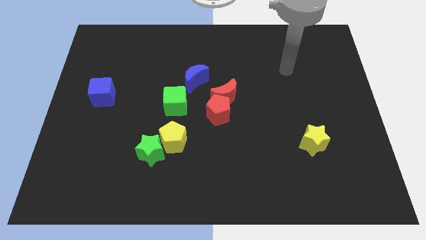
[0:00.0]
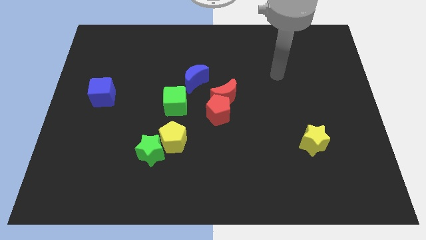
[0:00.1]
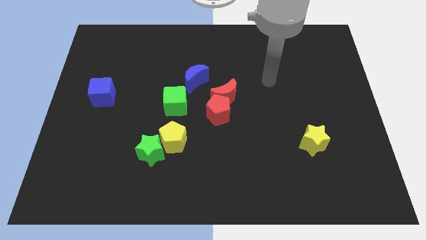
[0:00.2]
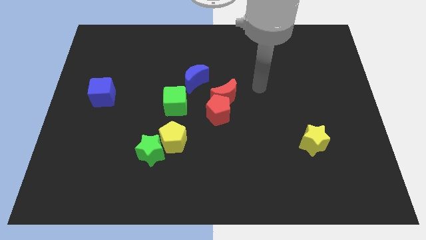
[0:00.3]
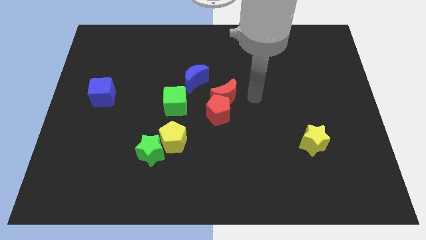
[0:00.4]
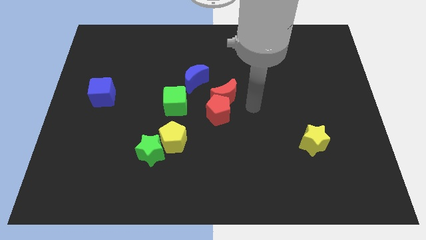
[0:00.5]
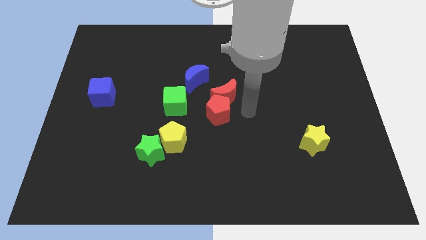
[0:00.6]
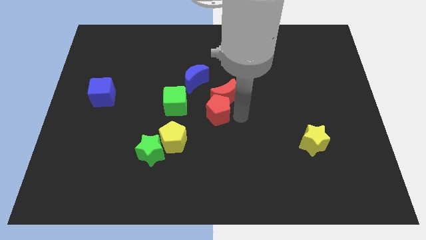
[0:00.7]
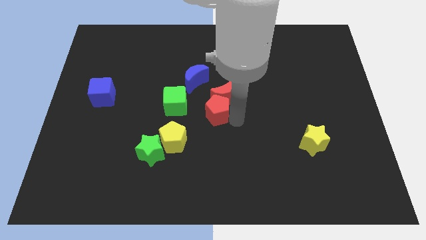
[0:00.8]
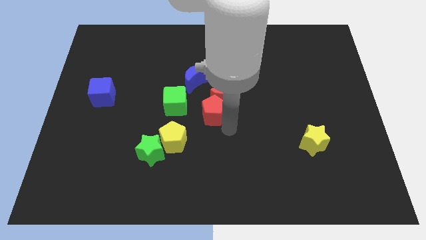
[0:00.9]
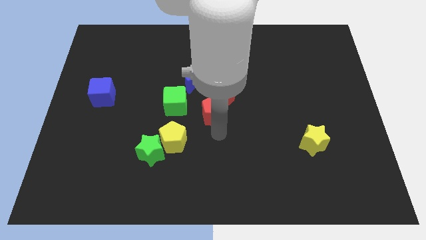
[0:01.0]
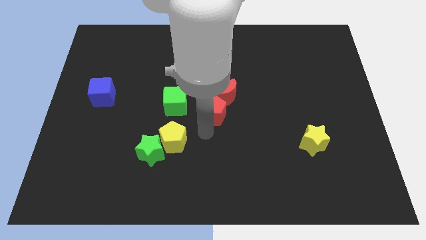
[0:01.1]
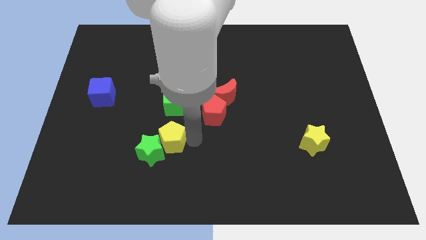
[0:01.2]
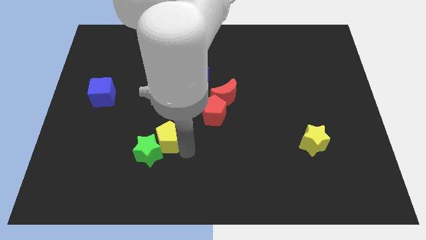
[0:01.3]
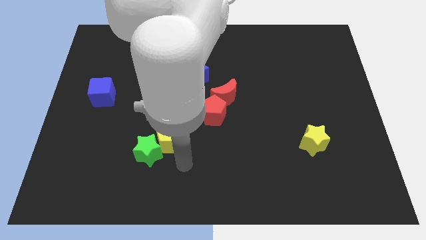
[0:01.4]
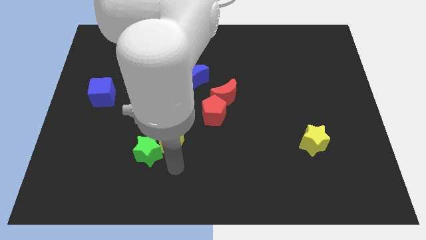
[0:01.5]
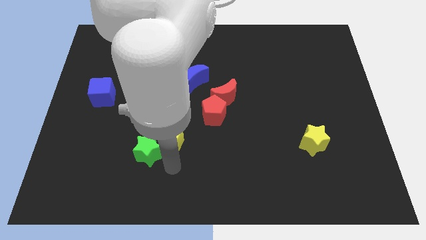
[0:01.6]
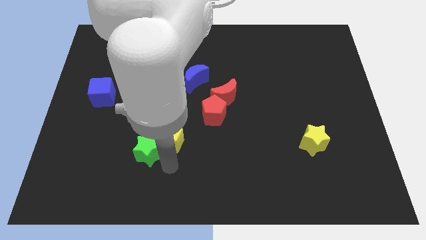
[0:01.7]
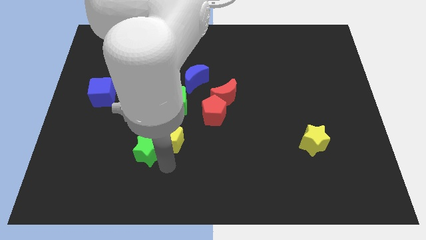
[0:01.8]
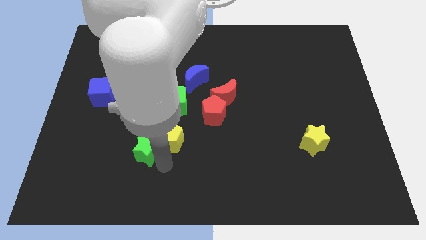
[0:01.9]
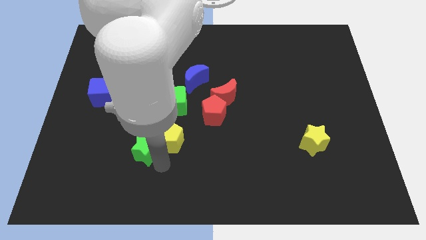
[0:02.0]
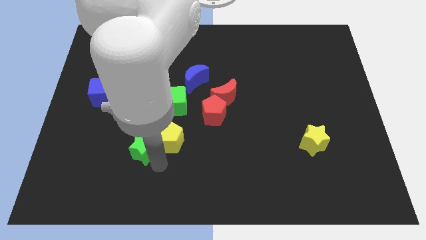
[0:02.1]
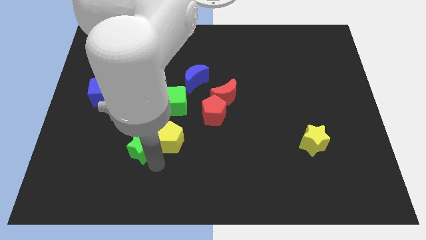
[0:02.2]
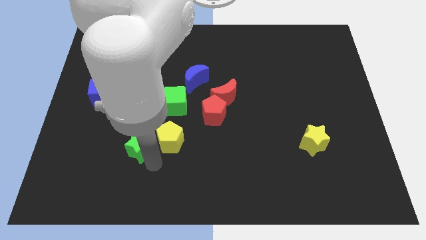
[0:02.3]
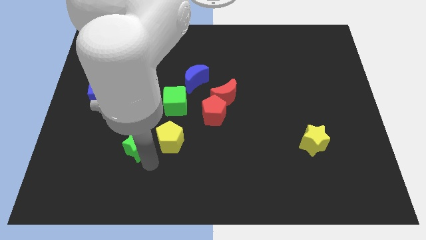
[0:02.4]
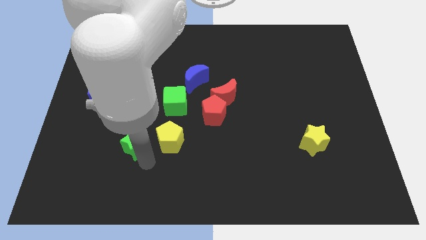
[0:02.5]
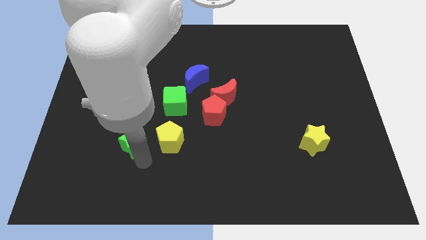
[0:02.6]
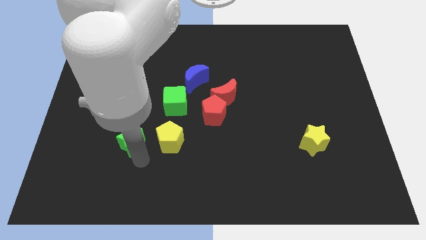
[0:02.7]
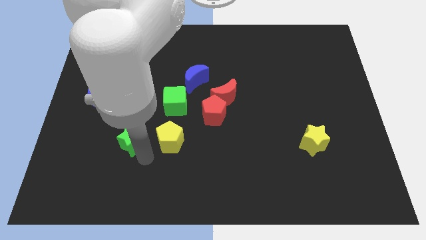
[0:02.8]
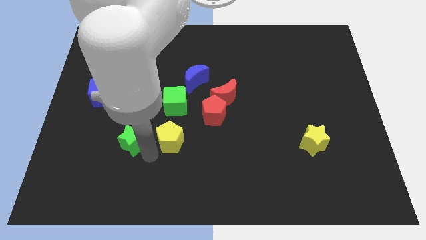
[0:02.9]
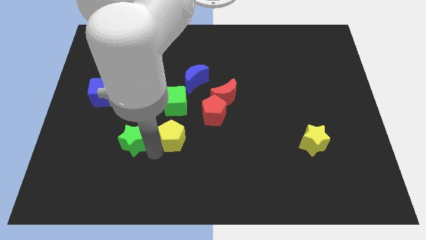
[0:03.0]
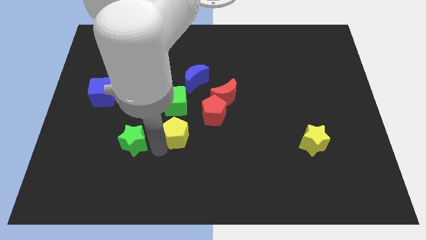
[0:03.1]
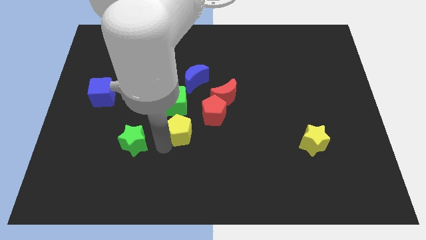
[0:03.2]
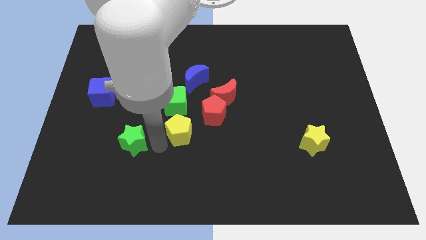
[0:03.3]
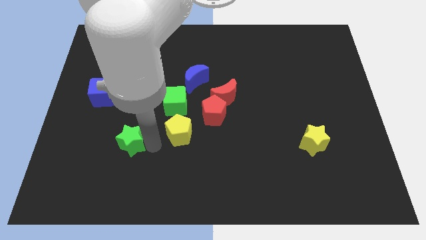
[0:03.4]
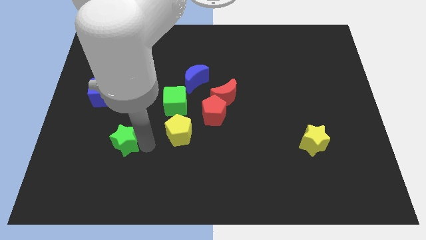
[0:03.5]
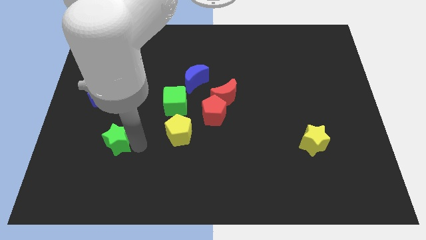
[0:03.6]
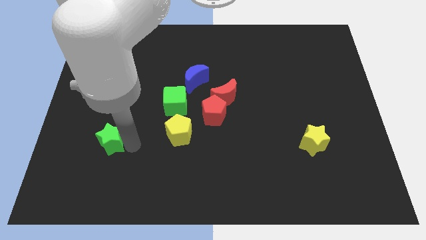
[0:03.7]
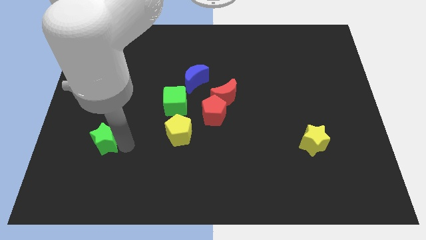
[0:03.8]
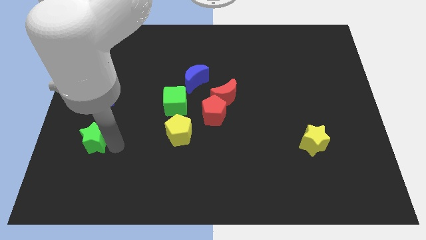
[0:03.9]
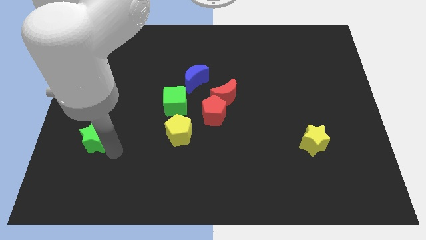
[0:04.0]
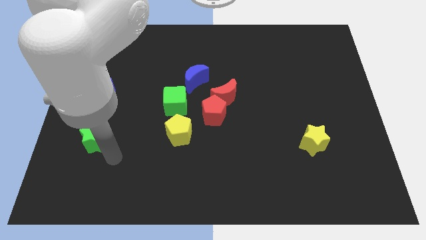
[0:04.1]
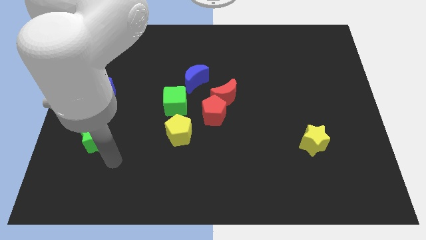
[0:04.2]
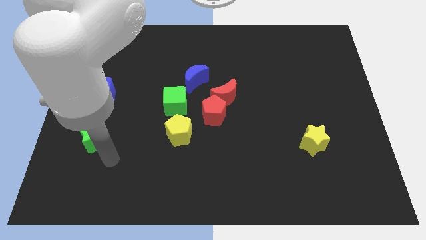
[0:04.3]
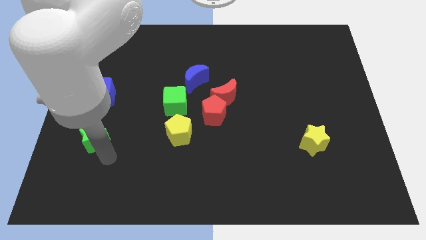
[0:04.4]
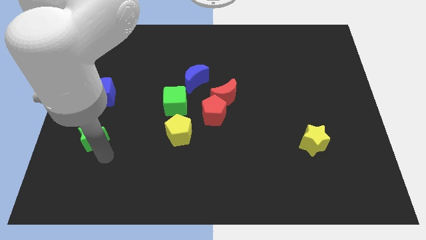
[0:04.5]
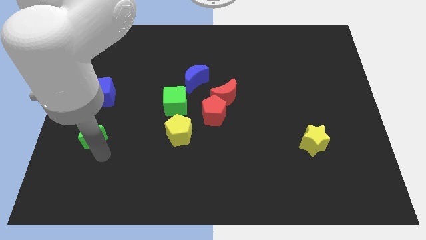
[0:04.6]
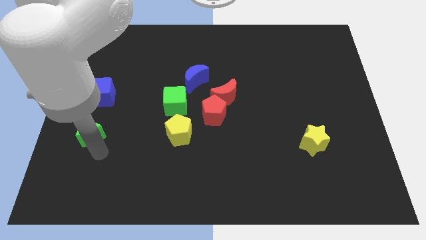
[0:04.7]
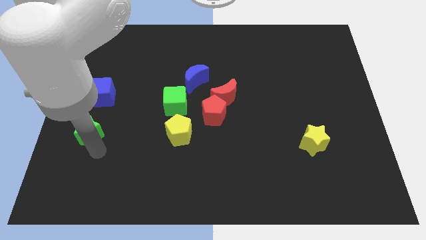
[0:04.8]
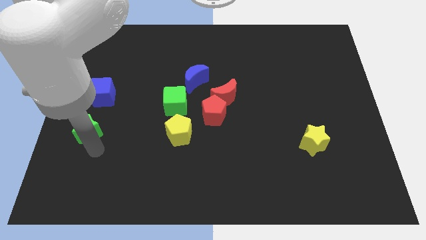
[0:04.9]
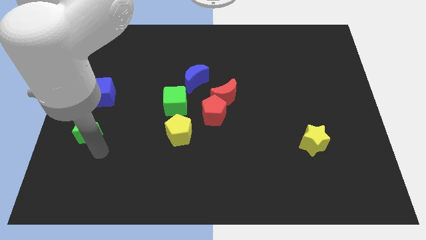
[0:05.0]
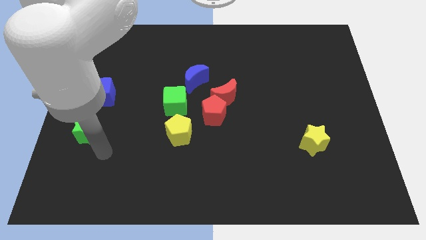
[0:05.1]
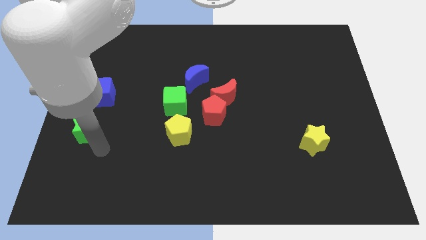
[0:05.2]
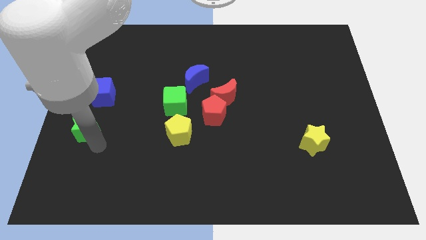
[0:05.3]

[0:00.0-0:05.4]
slide the green star to the center left

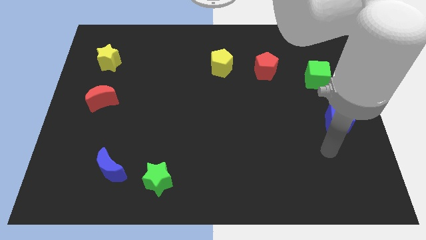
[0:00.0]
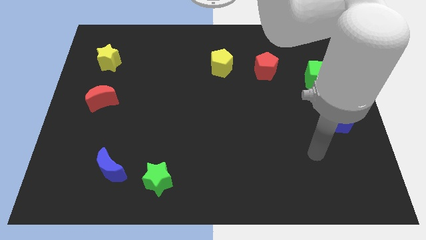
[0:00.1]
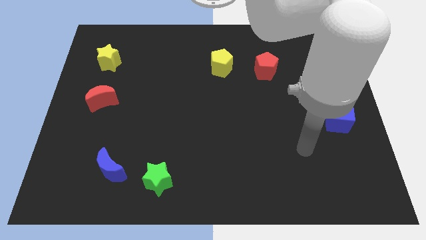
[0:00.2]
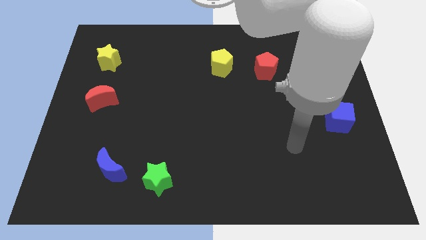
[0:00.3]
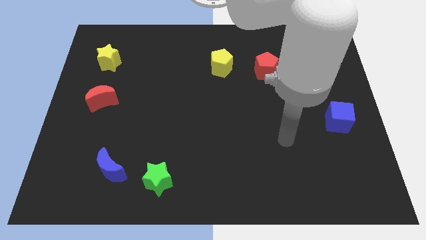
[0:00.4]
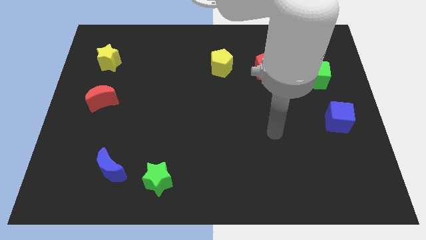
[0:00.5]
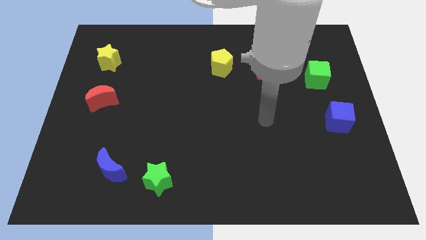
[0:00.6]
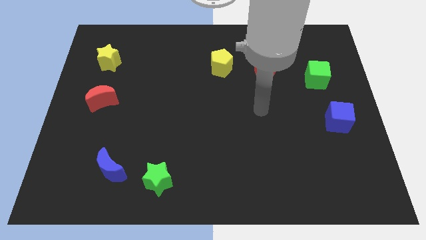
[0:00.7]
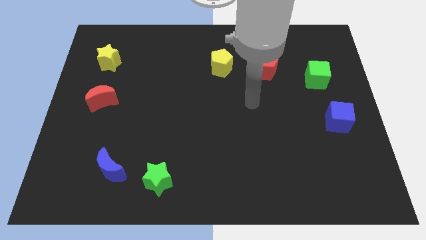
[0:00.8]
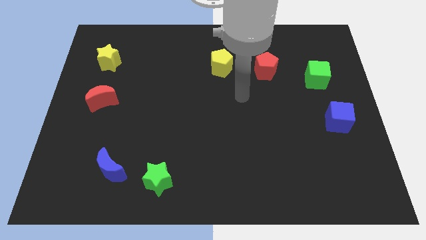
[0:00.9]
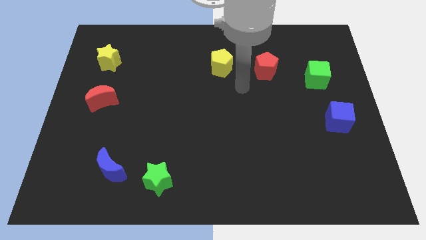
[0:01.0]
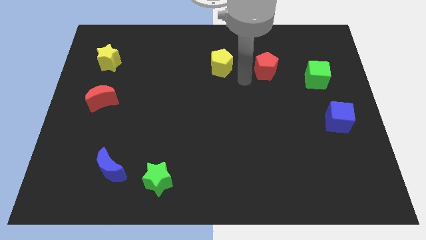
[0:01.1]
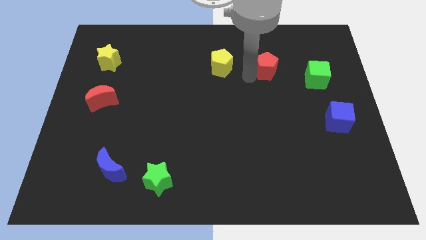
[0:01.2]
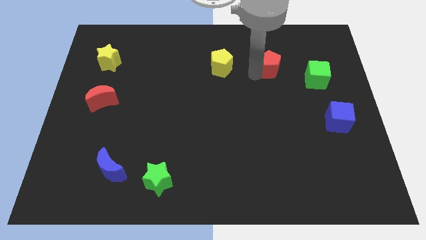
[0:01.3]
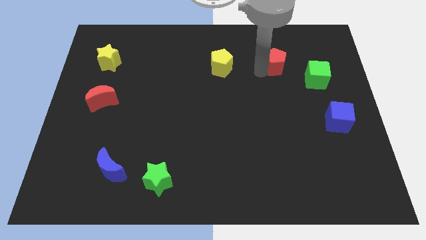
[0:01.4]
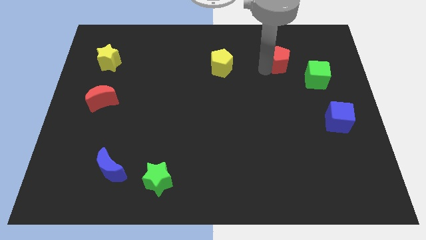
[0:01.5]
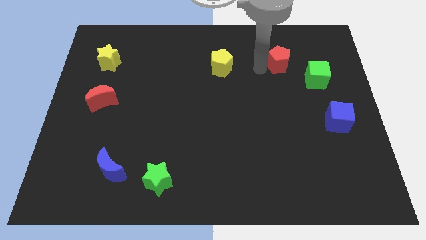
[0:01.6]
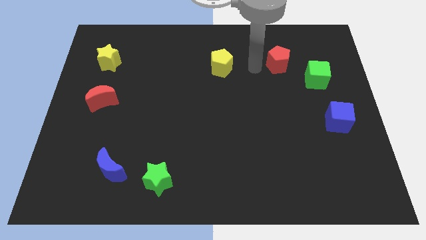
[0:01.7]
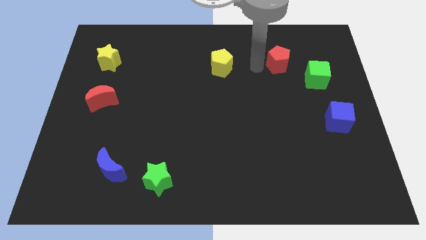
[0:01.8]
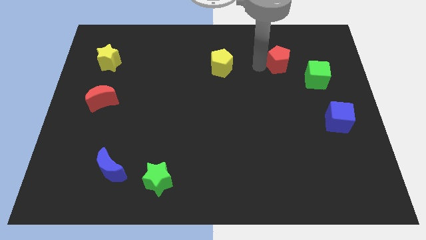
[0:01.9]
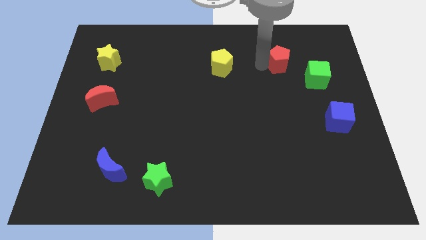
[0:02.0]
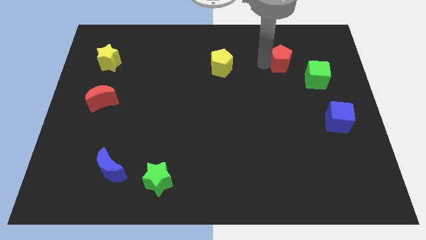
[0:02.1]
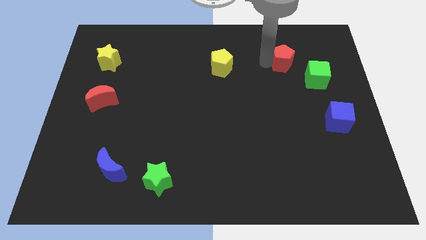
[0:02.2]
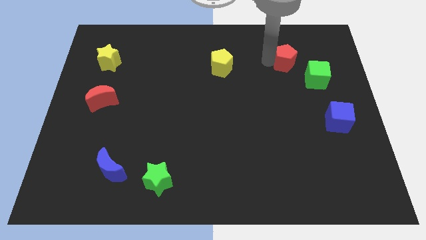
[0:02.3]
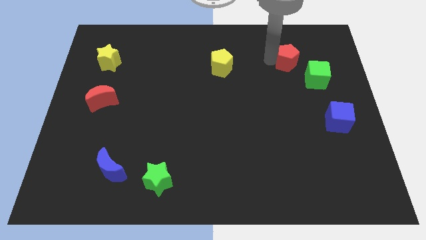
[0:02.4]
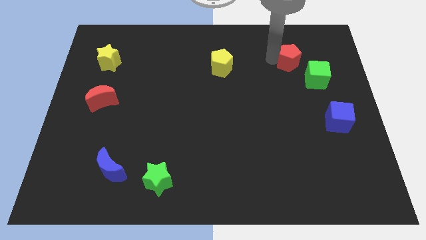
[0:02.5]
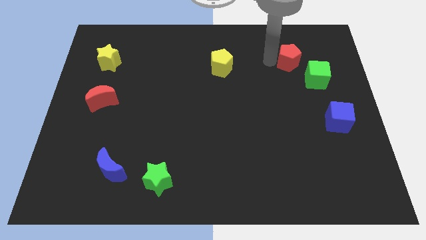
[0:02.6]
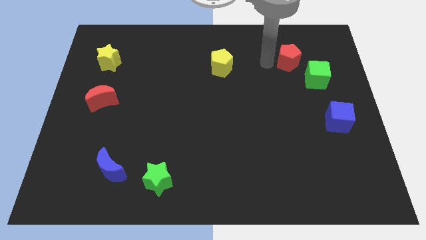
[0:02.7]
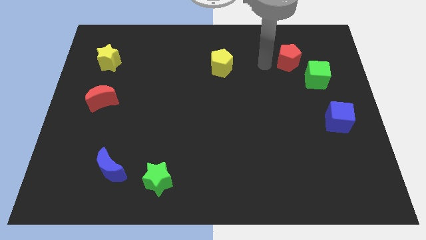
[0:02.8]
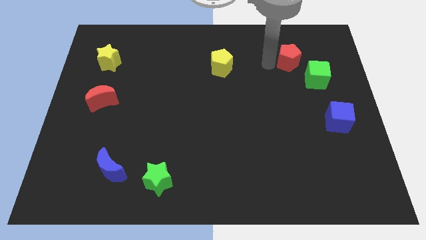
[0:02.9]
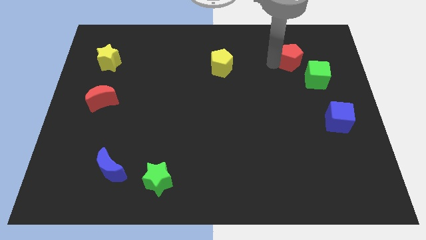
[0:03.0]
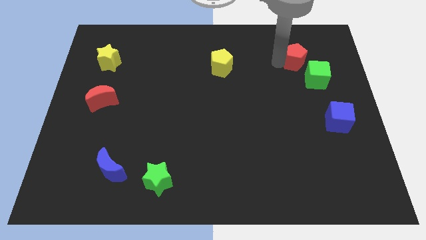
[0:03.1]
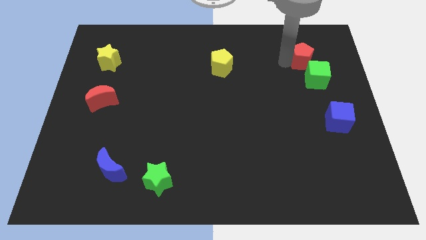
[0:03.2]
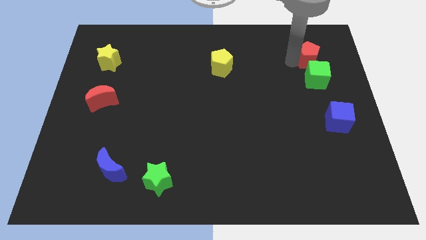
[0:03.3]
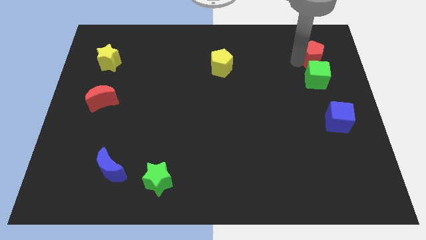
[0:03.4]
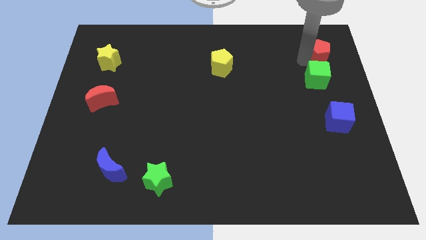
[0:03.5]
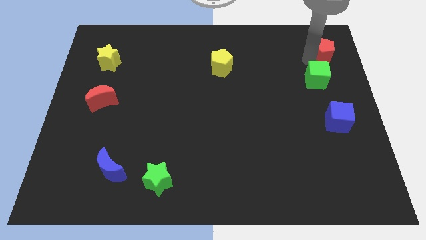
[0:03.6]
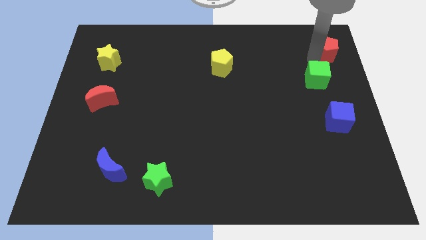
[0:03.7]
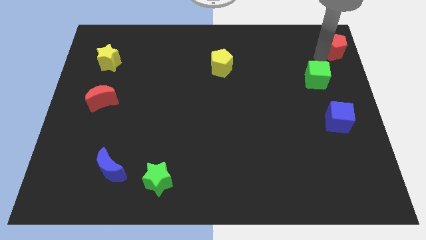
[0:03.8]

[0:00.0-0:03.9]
slide the red pentagon to the top right
